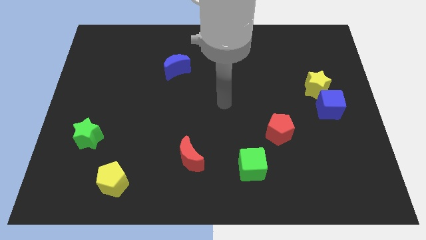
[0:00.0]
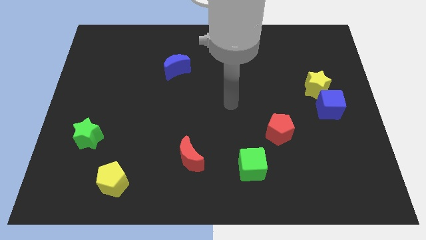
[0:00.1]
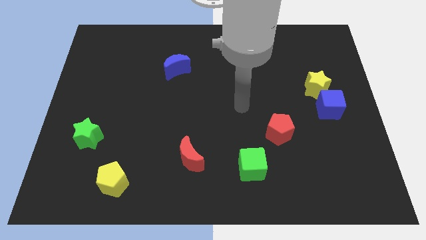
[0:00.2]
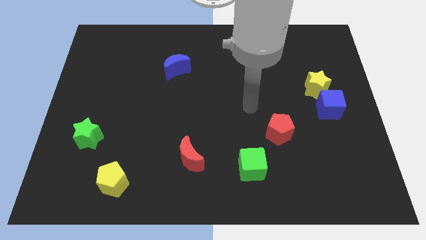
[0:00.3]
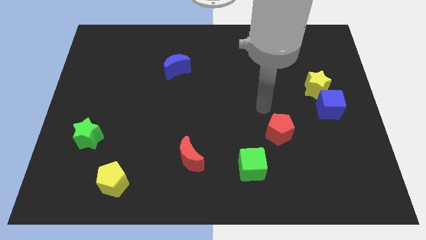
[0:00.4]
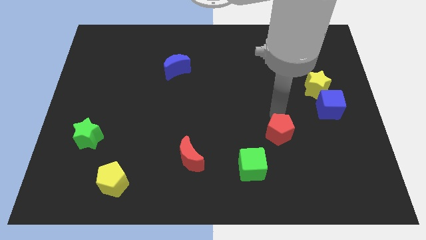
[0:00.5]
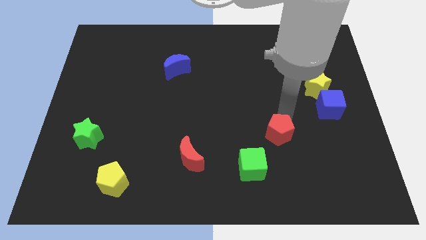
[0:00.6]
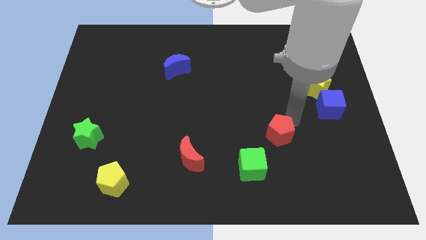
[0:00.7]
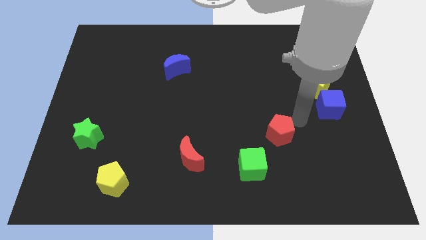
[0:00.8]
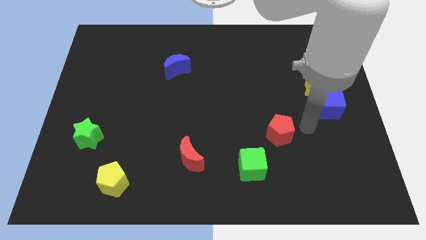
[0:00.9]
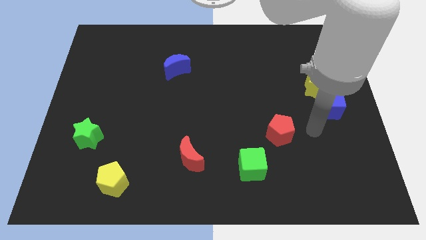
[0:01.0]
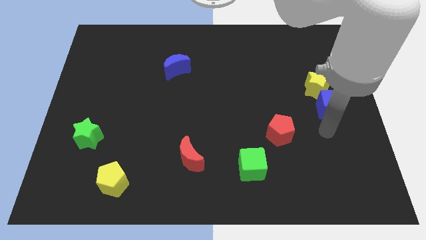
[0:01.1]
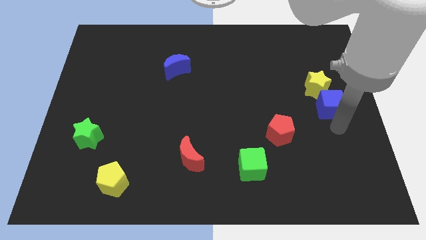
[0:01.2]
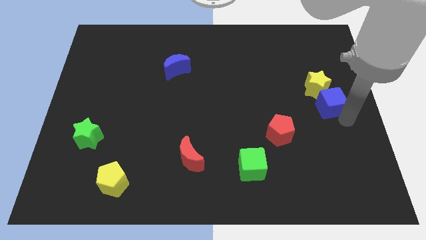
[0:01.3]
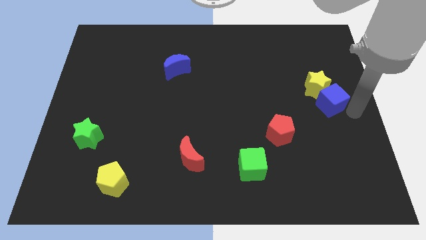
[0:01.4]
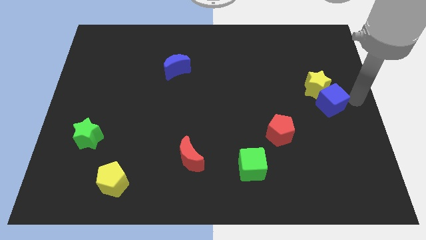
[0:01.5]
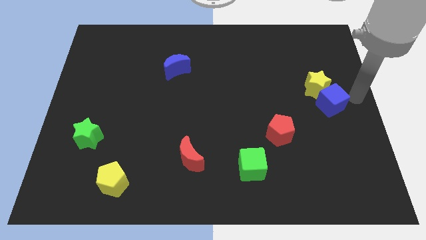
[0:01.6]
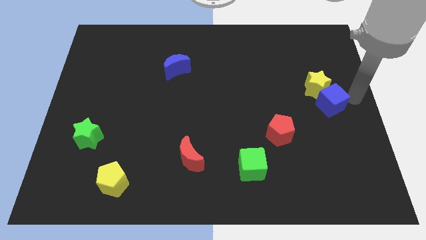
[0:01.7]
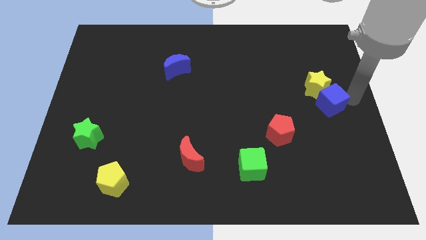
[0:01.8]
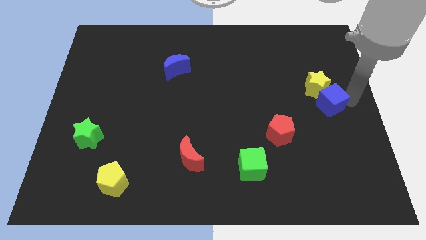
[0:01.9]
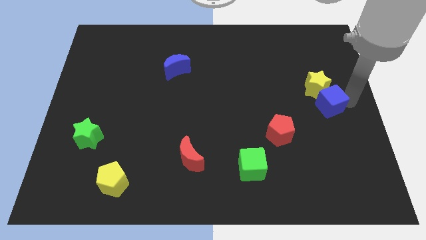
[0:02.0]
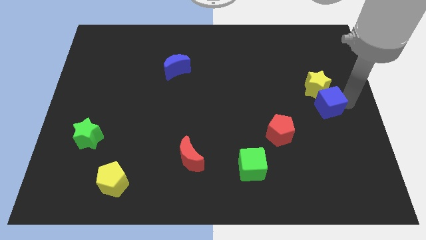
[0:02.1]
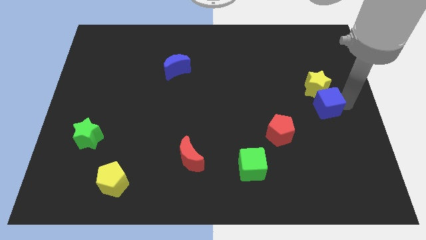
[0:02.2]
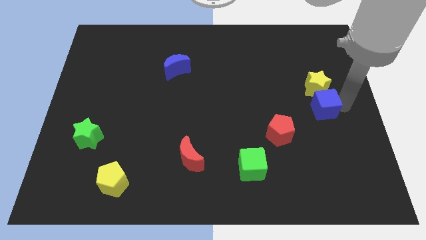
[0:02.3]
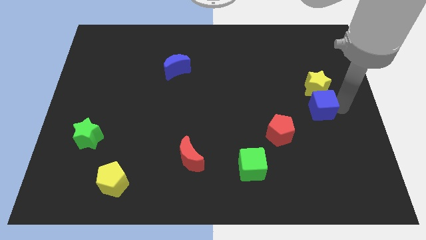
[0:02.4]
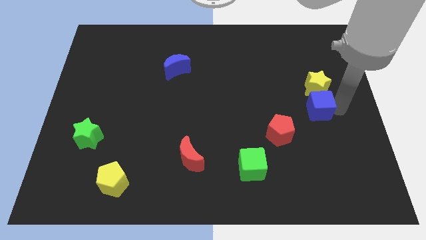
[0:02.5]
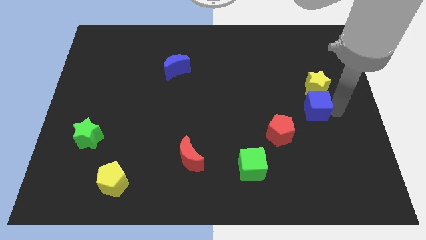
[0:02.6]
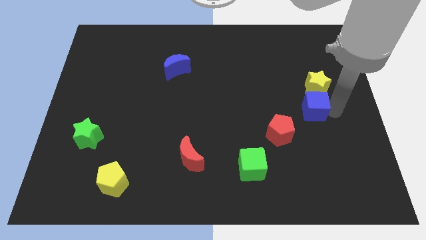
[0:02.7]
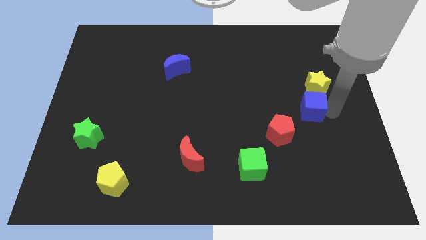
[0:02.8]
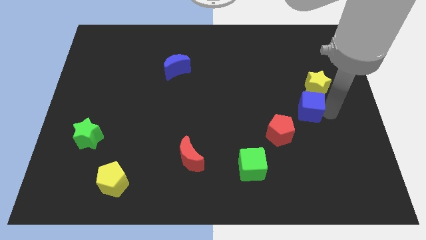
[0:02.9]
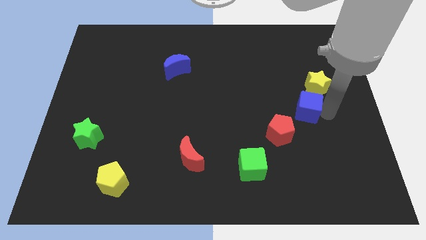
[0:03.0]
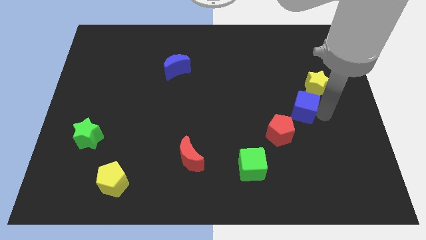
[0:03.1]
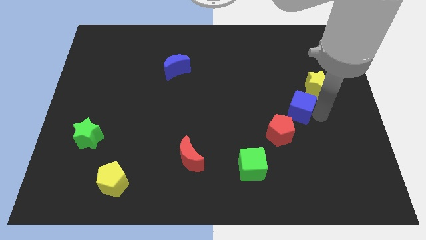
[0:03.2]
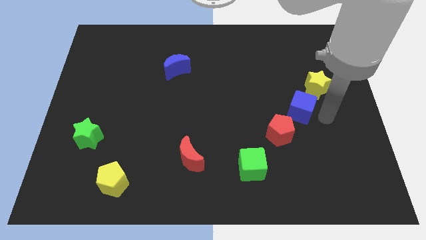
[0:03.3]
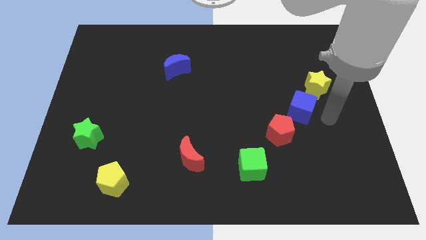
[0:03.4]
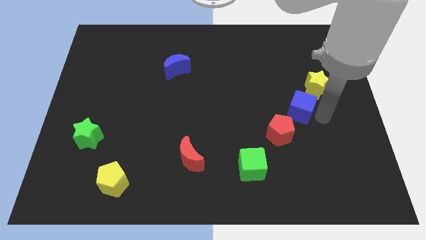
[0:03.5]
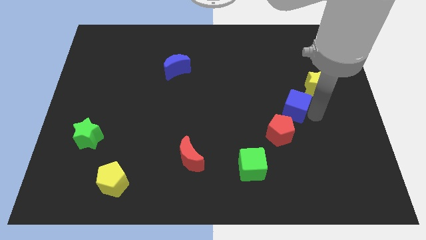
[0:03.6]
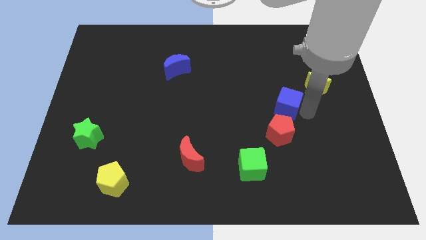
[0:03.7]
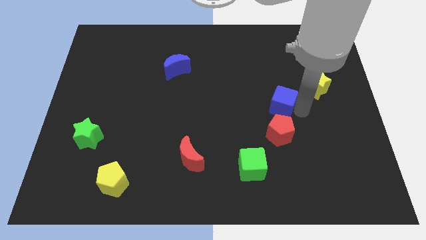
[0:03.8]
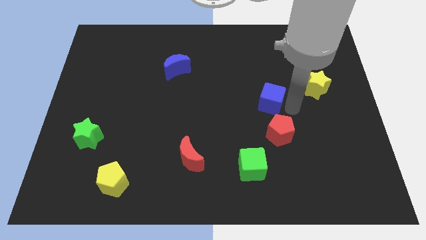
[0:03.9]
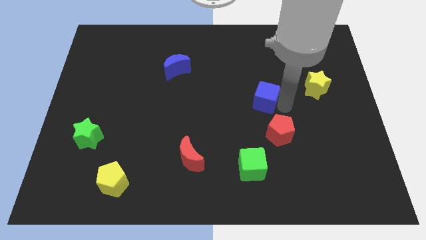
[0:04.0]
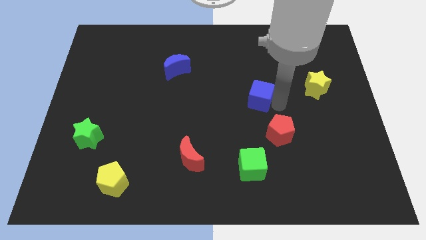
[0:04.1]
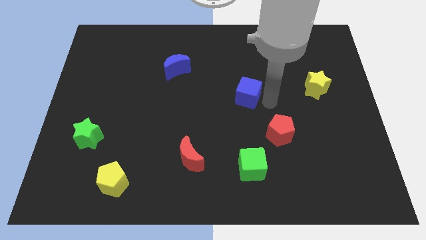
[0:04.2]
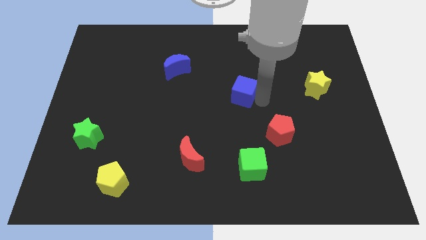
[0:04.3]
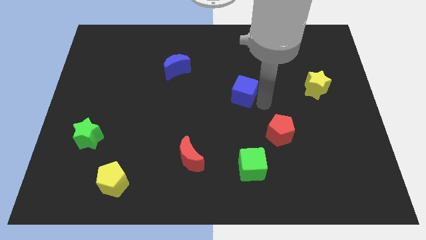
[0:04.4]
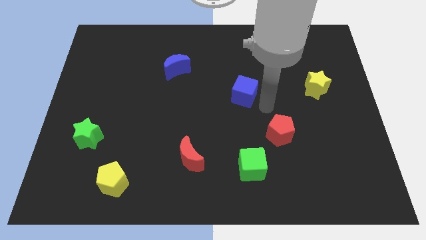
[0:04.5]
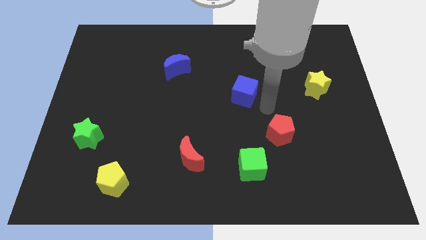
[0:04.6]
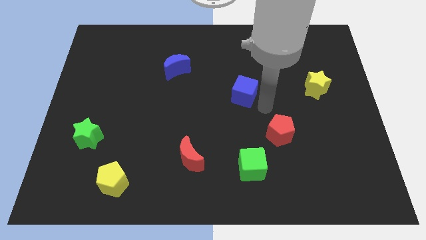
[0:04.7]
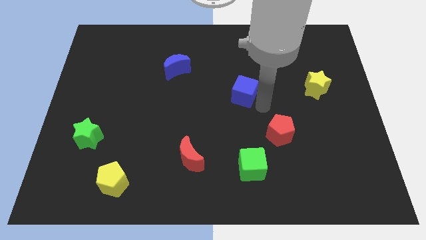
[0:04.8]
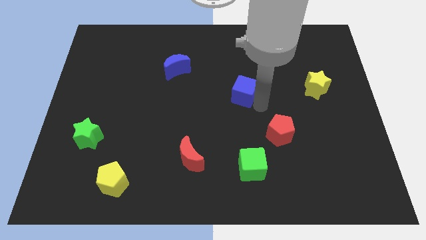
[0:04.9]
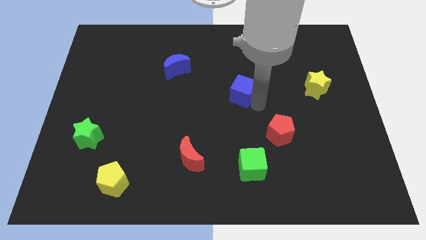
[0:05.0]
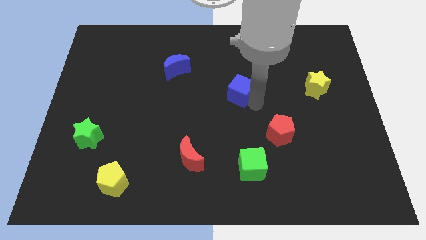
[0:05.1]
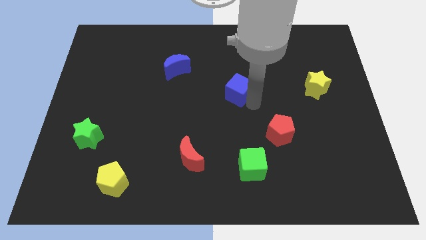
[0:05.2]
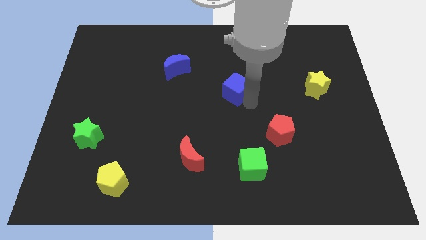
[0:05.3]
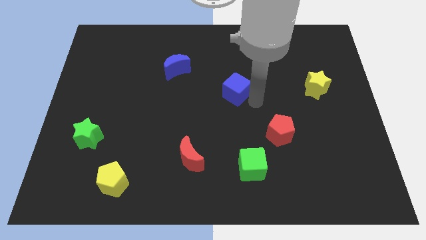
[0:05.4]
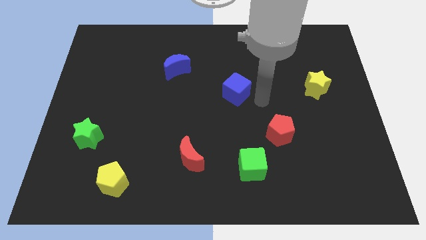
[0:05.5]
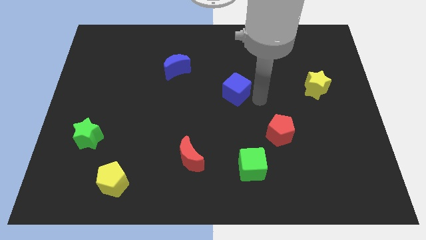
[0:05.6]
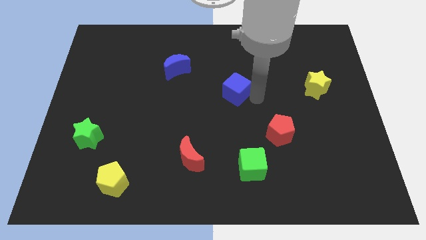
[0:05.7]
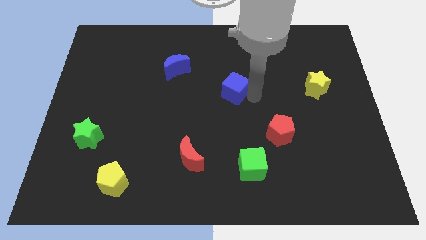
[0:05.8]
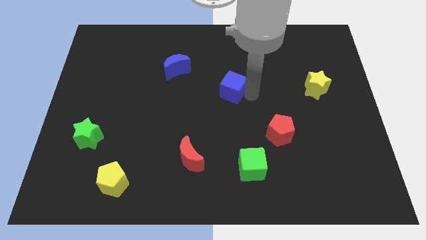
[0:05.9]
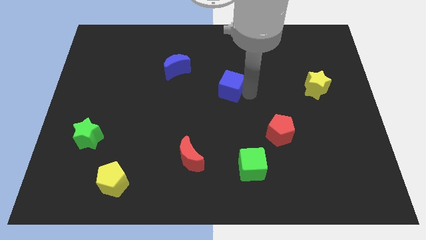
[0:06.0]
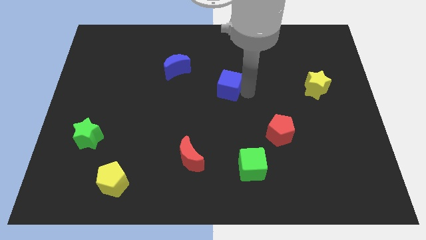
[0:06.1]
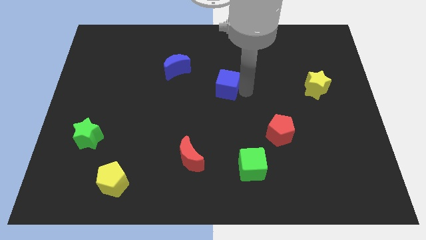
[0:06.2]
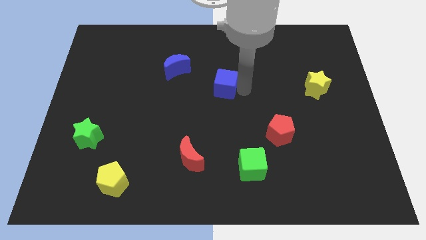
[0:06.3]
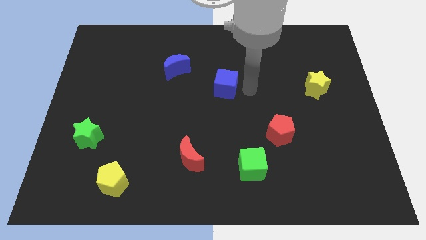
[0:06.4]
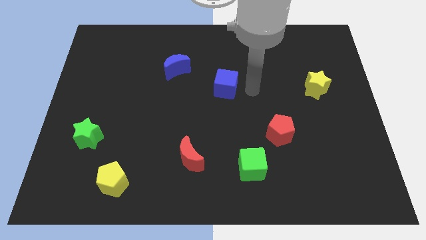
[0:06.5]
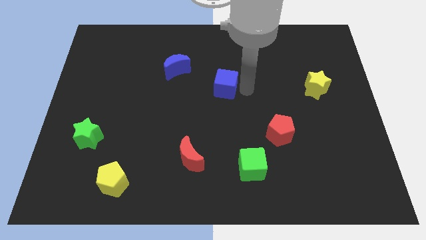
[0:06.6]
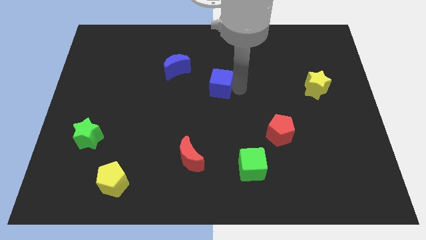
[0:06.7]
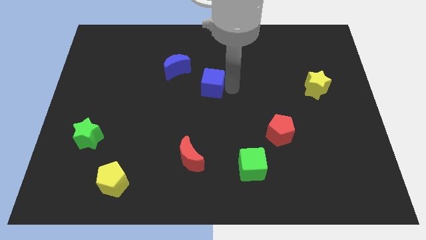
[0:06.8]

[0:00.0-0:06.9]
push the blue cube to the bottom right side of the blue moon

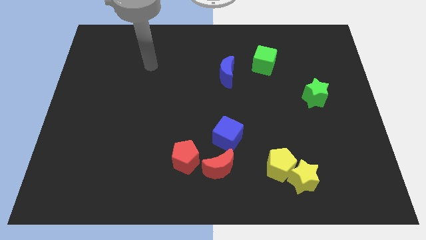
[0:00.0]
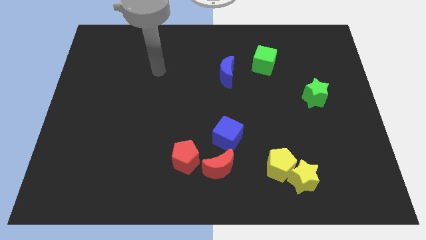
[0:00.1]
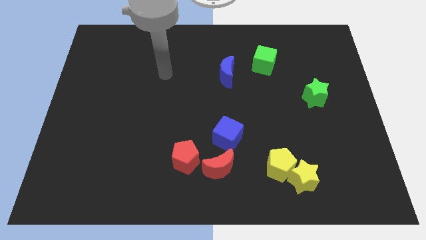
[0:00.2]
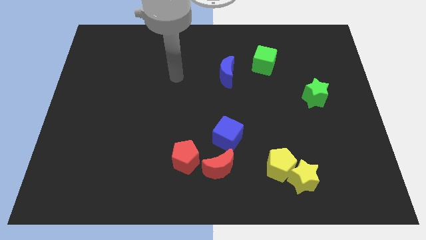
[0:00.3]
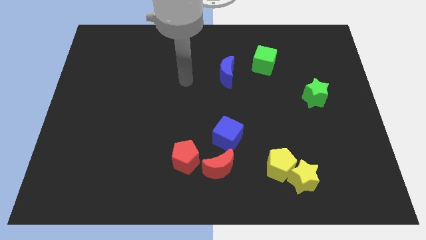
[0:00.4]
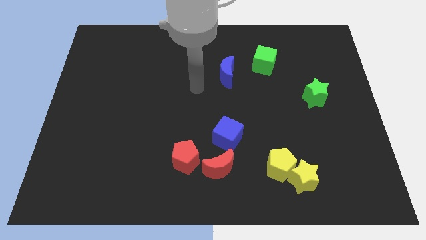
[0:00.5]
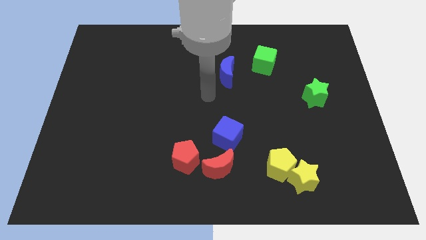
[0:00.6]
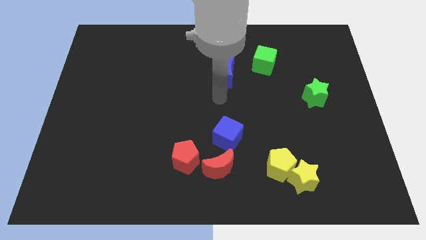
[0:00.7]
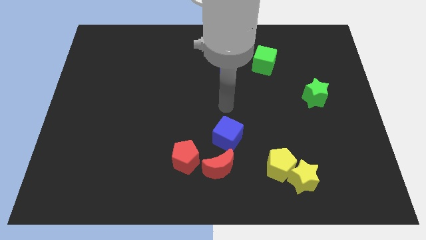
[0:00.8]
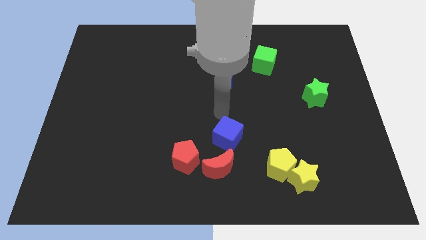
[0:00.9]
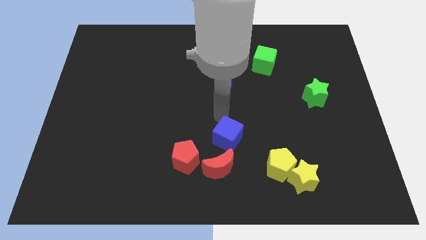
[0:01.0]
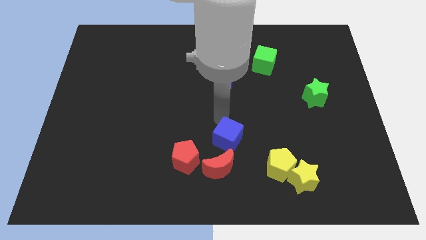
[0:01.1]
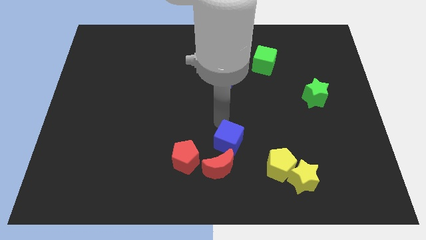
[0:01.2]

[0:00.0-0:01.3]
push the blue cube to the right of the red pentagon
